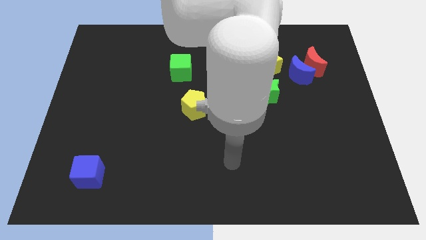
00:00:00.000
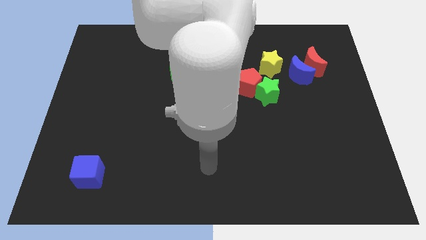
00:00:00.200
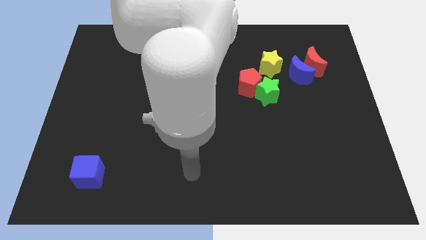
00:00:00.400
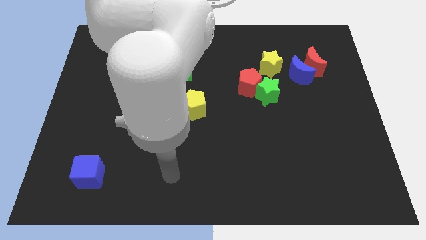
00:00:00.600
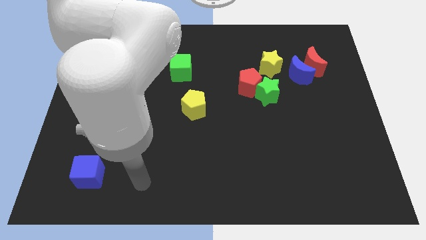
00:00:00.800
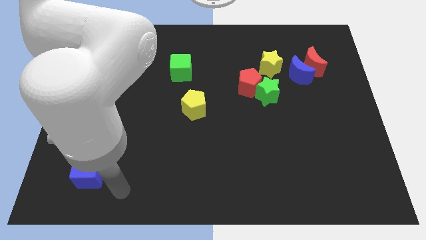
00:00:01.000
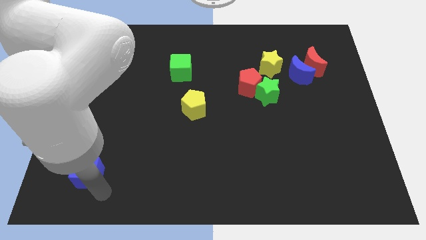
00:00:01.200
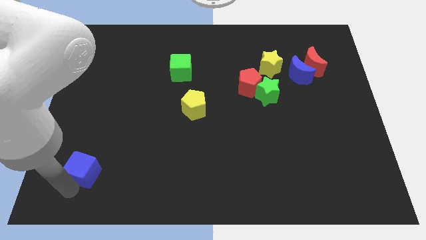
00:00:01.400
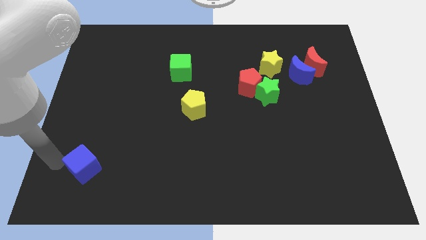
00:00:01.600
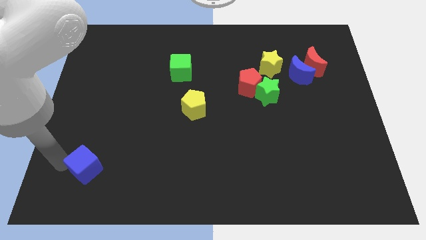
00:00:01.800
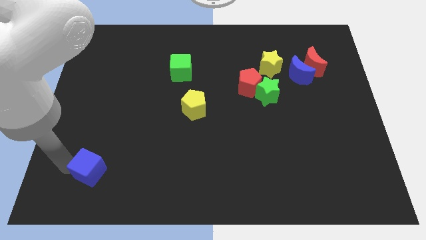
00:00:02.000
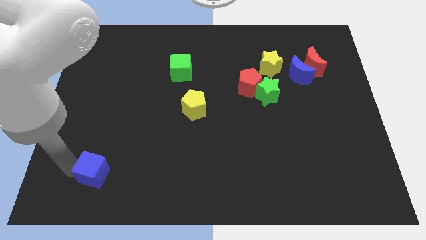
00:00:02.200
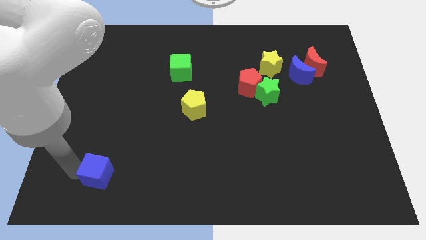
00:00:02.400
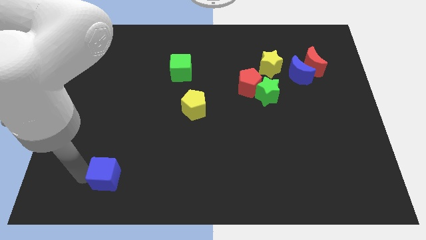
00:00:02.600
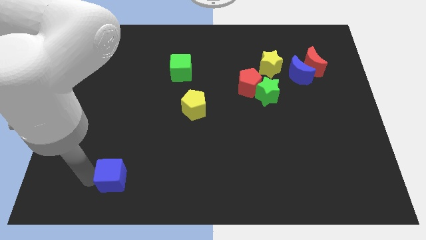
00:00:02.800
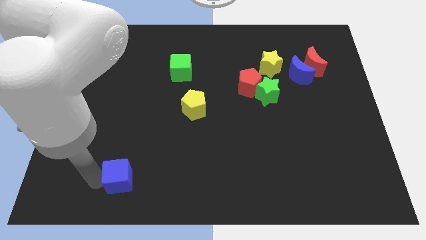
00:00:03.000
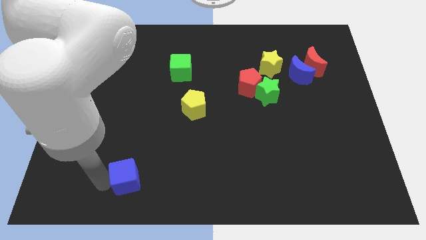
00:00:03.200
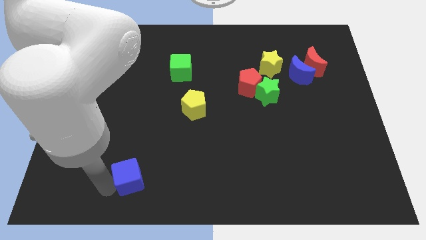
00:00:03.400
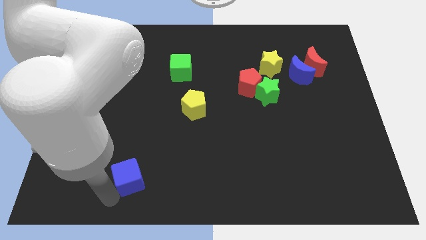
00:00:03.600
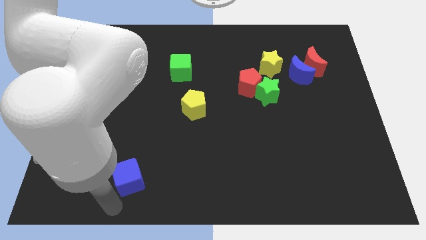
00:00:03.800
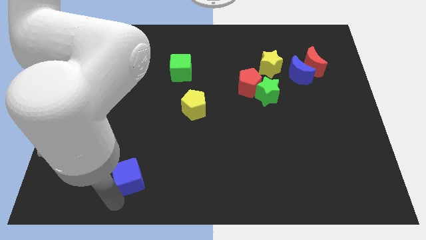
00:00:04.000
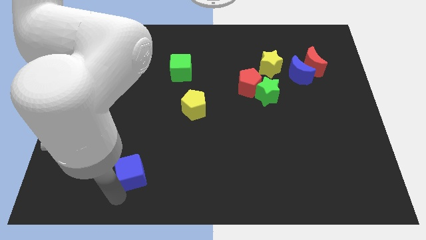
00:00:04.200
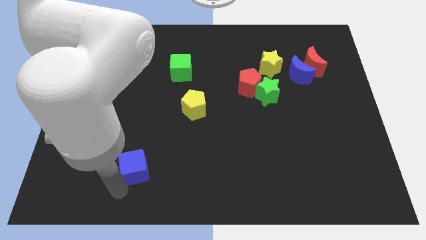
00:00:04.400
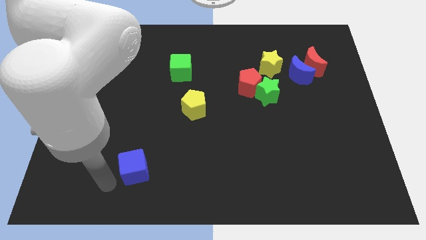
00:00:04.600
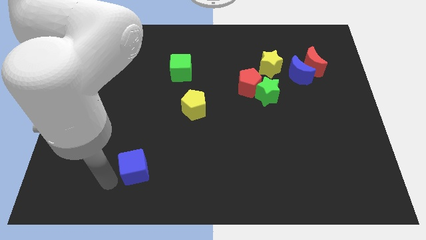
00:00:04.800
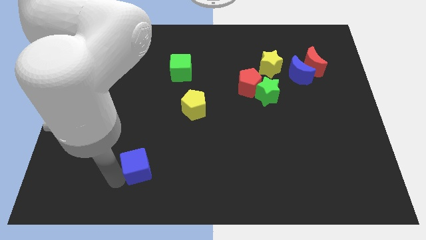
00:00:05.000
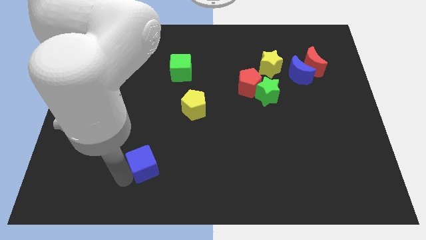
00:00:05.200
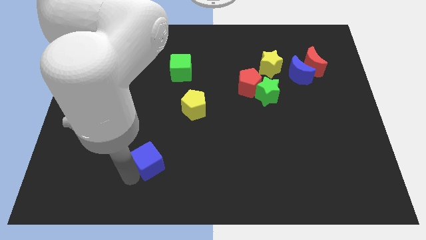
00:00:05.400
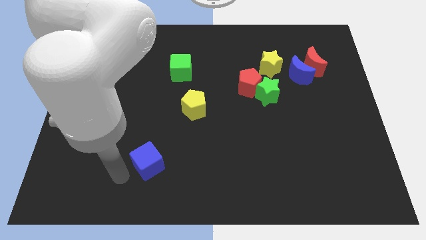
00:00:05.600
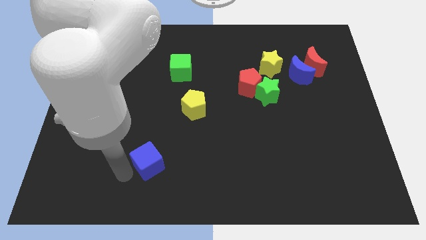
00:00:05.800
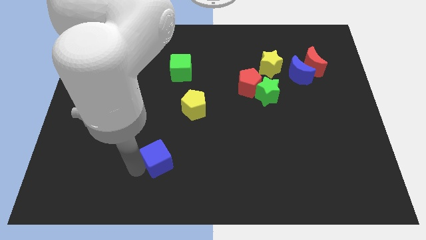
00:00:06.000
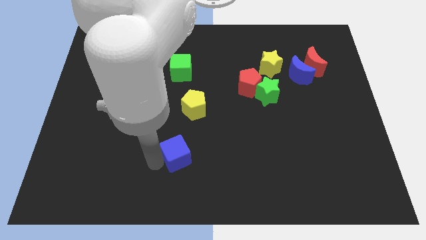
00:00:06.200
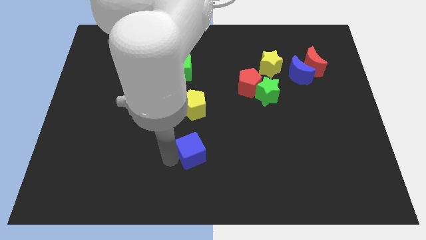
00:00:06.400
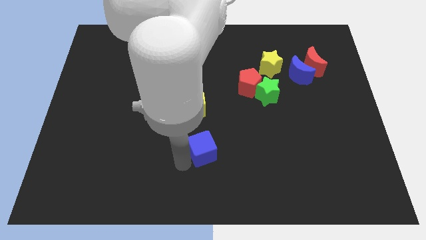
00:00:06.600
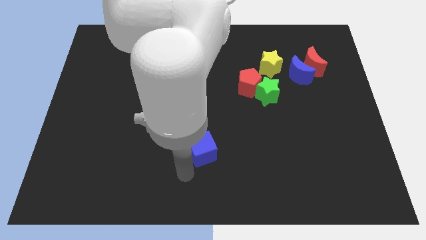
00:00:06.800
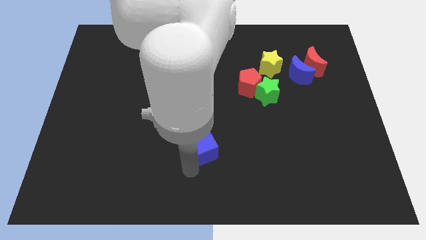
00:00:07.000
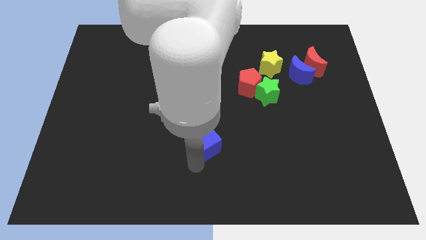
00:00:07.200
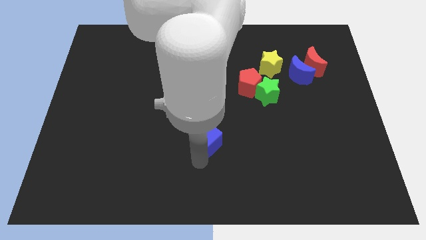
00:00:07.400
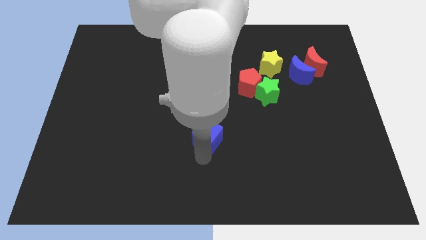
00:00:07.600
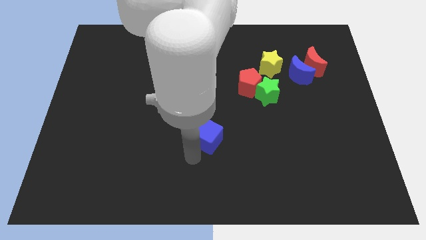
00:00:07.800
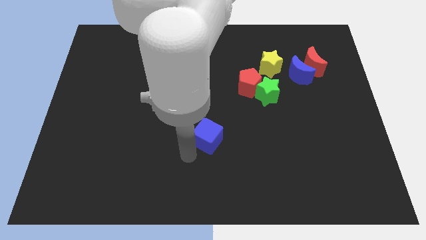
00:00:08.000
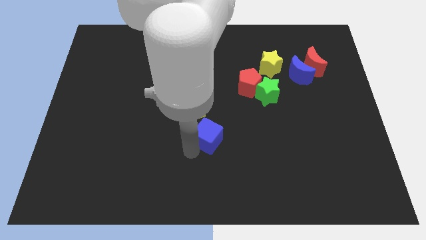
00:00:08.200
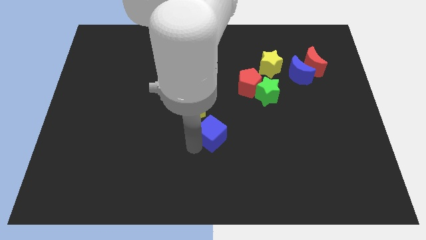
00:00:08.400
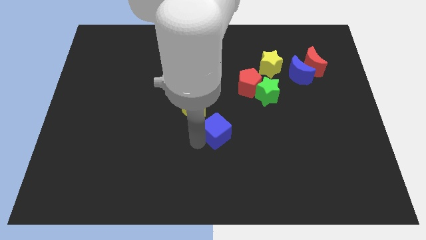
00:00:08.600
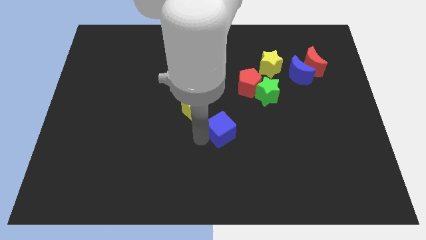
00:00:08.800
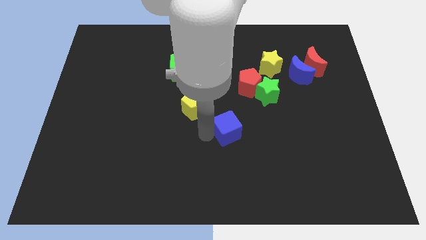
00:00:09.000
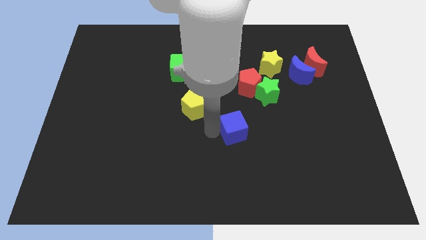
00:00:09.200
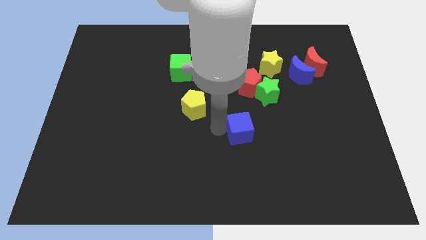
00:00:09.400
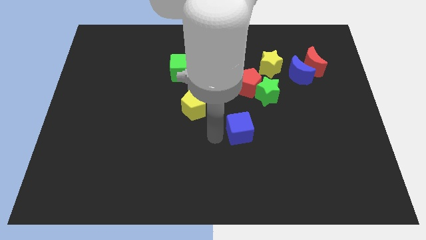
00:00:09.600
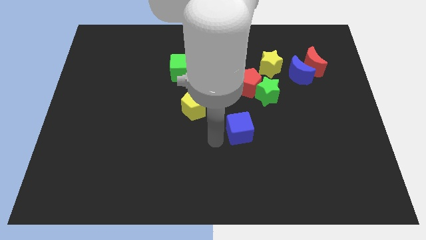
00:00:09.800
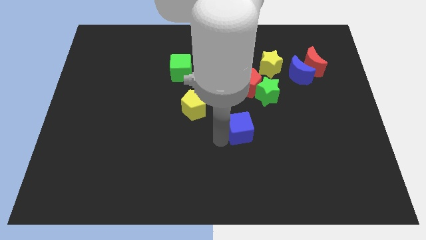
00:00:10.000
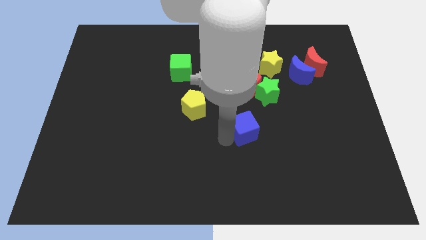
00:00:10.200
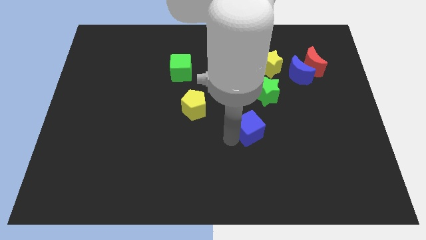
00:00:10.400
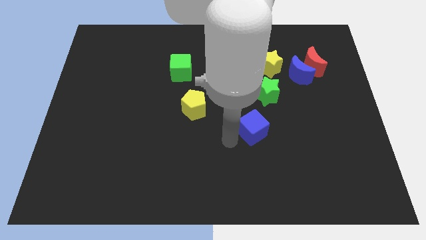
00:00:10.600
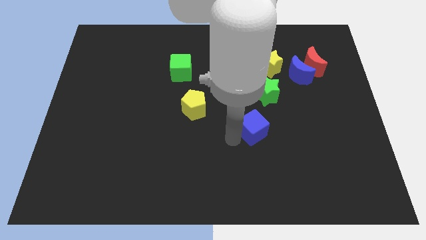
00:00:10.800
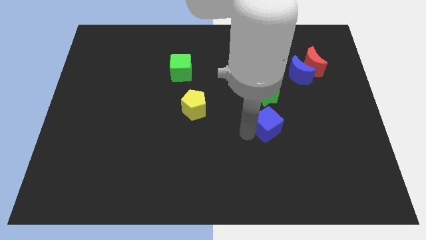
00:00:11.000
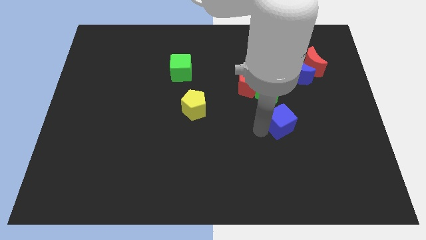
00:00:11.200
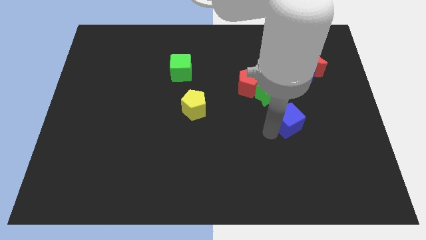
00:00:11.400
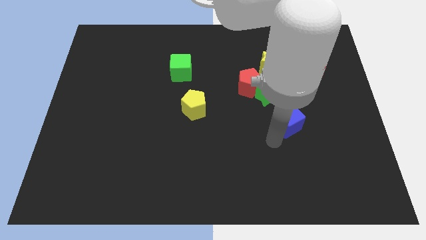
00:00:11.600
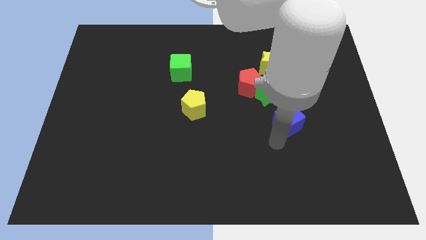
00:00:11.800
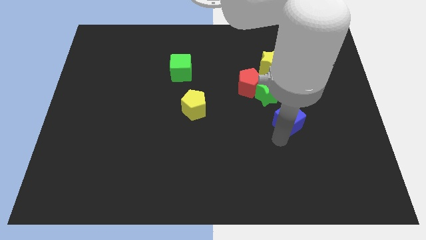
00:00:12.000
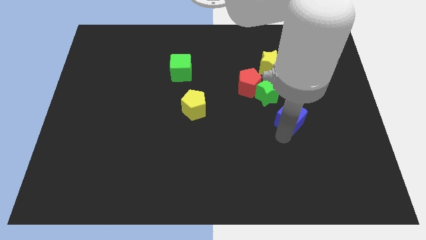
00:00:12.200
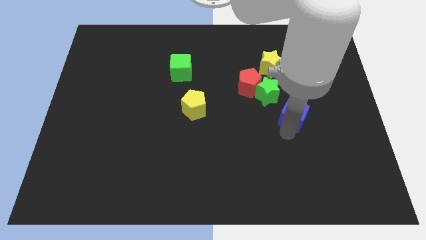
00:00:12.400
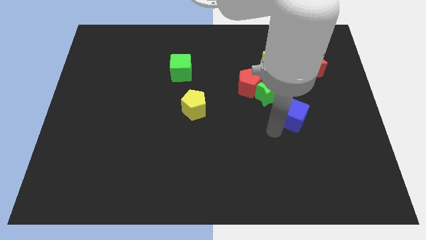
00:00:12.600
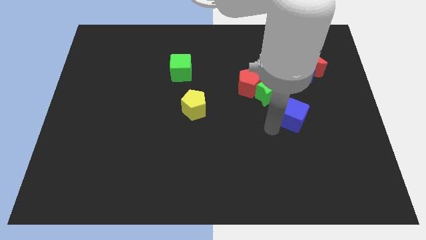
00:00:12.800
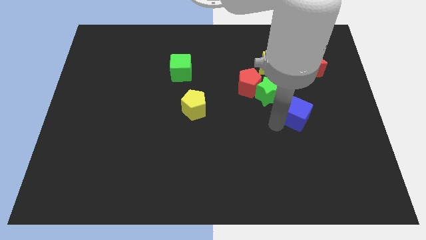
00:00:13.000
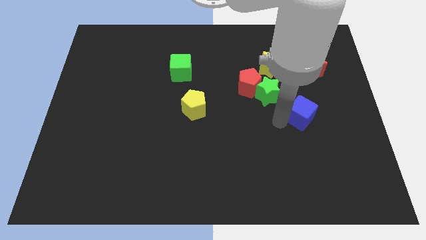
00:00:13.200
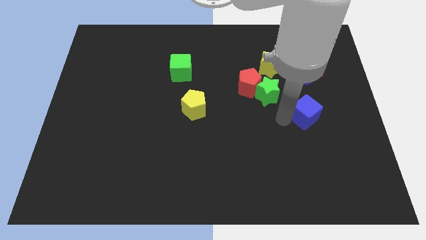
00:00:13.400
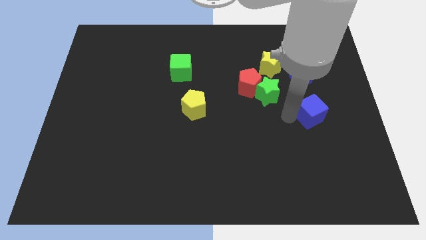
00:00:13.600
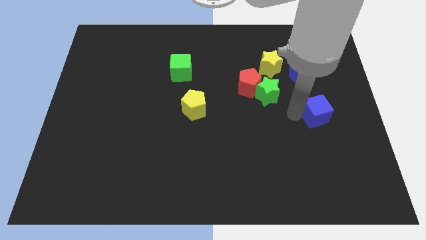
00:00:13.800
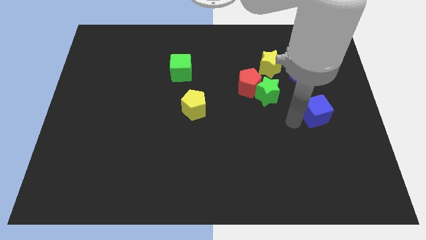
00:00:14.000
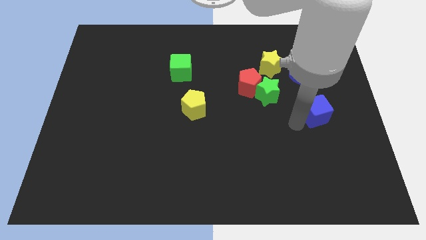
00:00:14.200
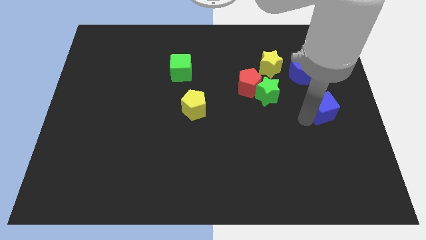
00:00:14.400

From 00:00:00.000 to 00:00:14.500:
push the blue cube to the right side of the board

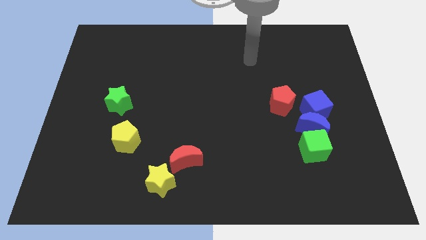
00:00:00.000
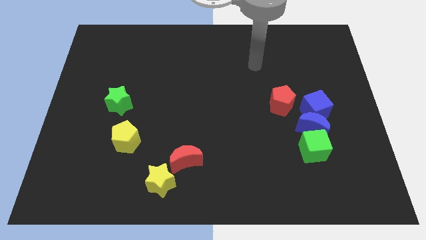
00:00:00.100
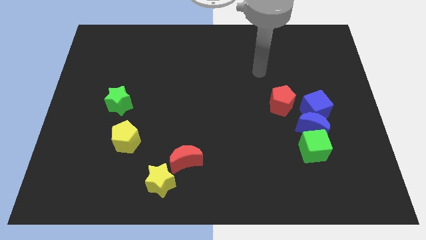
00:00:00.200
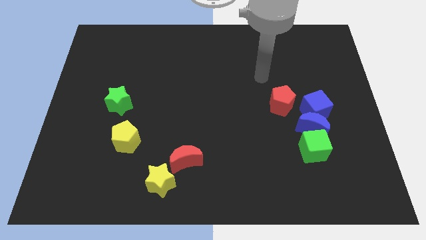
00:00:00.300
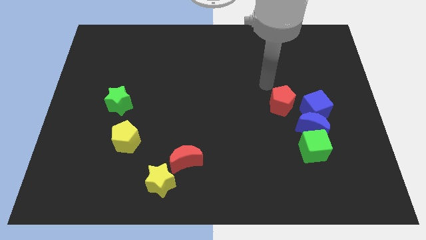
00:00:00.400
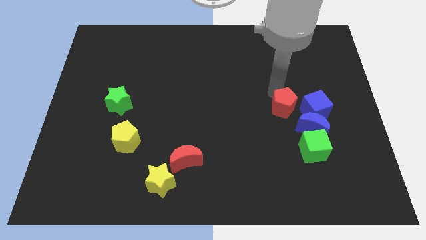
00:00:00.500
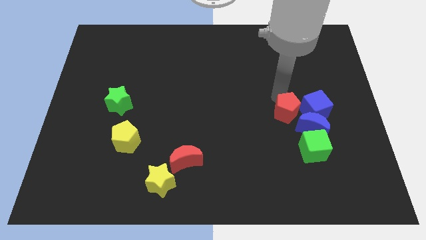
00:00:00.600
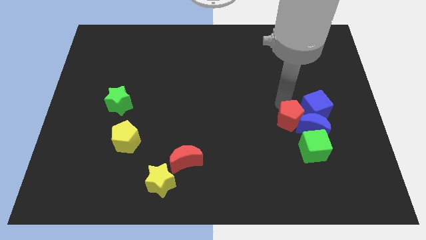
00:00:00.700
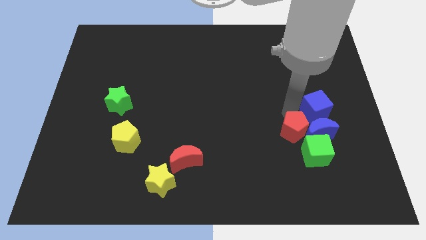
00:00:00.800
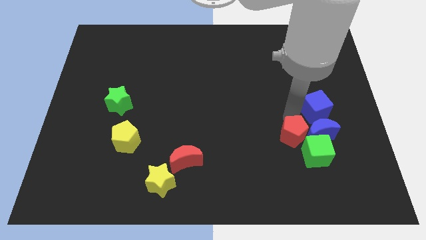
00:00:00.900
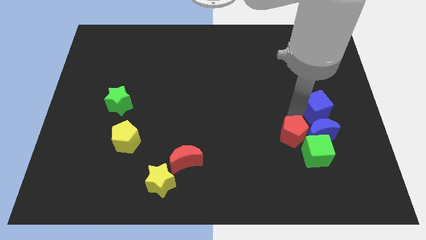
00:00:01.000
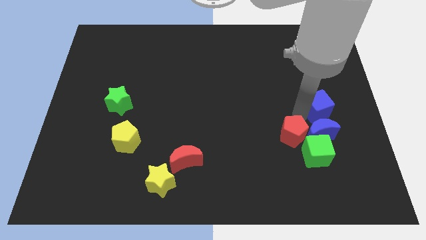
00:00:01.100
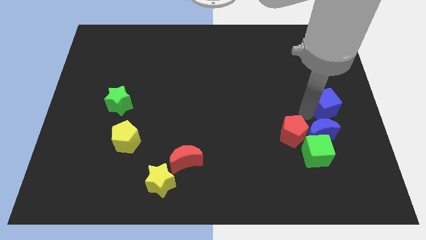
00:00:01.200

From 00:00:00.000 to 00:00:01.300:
put the blue cube to the right side of the board
